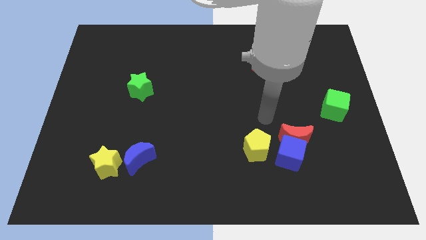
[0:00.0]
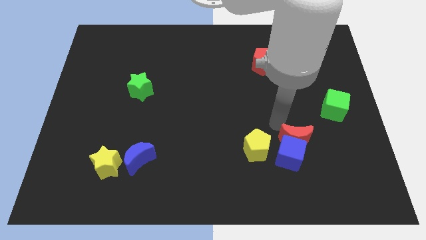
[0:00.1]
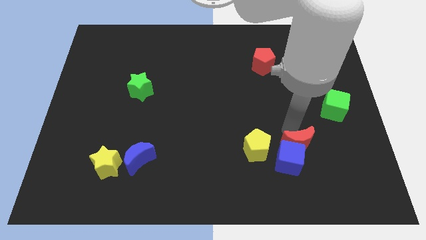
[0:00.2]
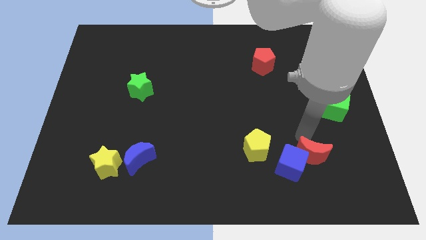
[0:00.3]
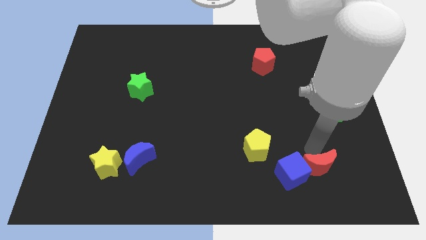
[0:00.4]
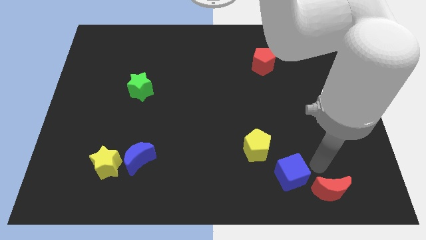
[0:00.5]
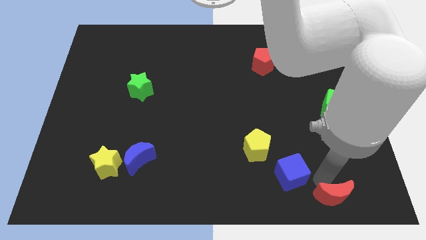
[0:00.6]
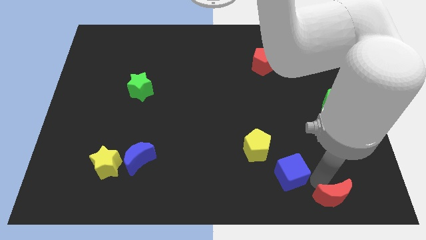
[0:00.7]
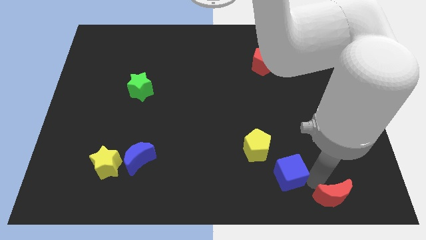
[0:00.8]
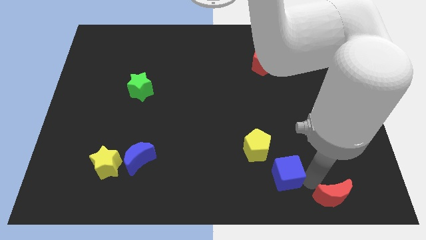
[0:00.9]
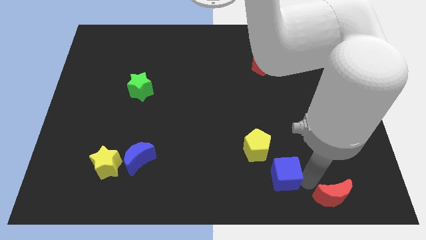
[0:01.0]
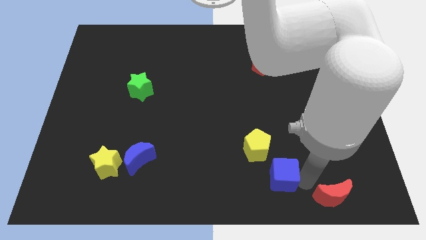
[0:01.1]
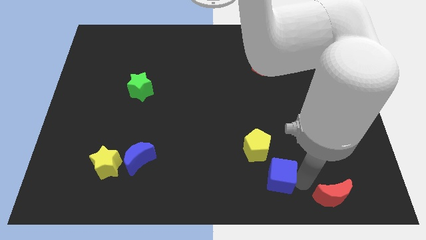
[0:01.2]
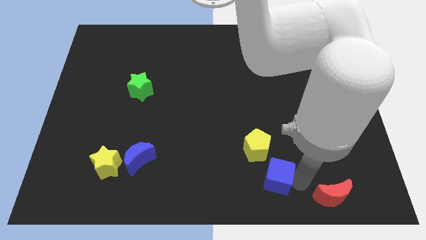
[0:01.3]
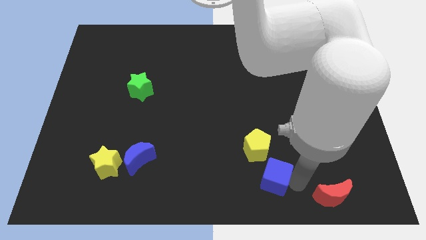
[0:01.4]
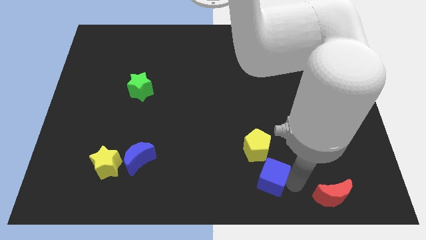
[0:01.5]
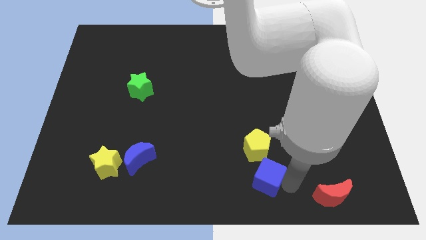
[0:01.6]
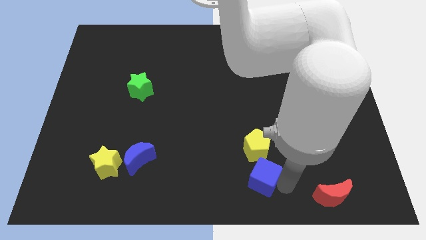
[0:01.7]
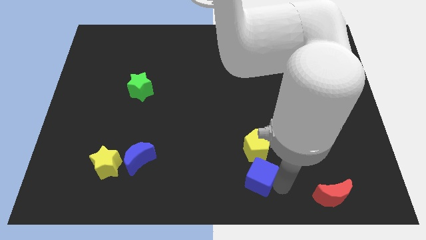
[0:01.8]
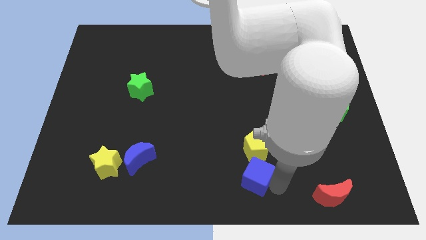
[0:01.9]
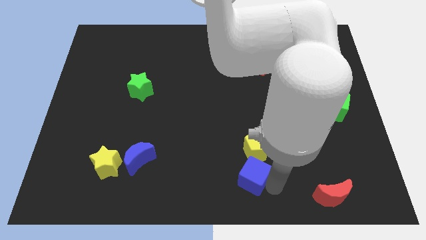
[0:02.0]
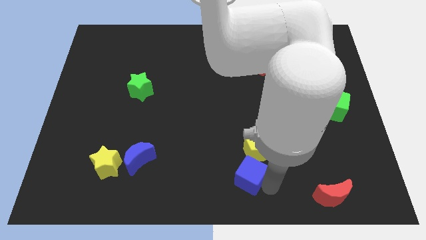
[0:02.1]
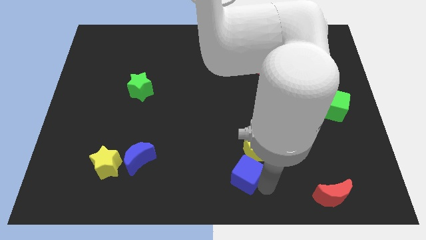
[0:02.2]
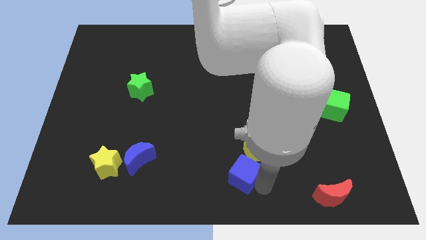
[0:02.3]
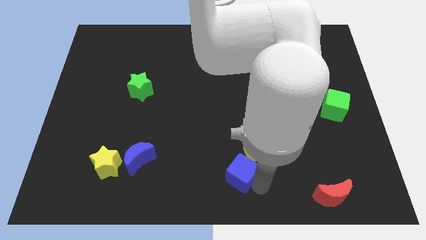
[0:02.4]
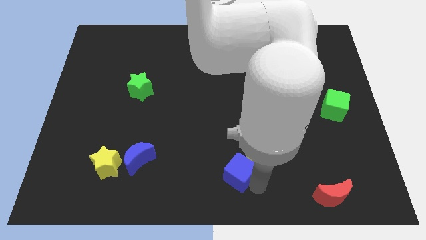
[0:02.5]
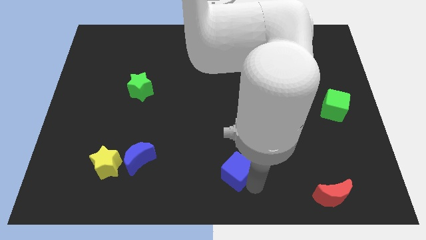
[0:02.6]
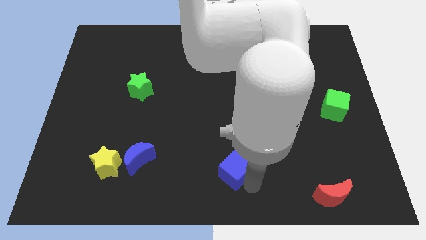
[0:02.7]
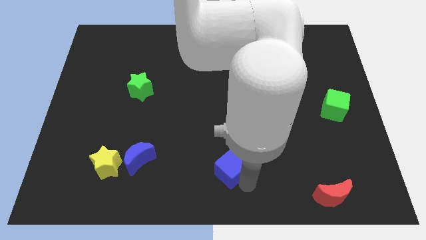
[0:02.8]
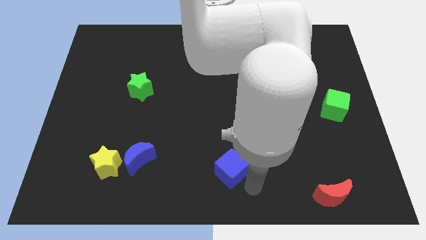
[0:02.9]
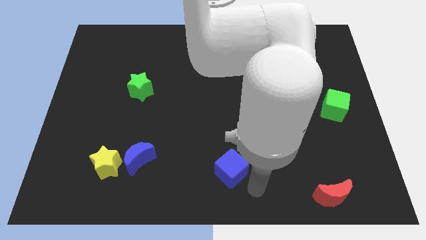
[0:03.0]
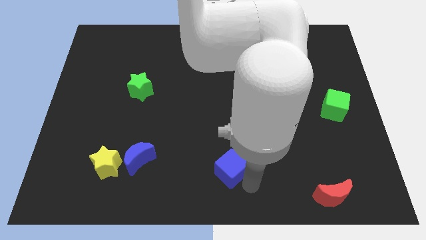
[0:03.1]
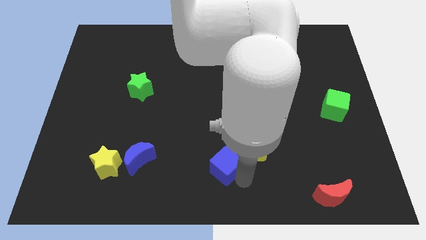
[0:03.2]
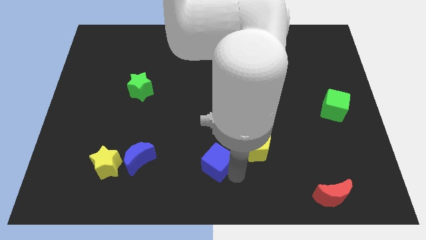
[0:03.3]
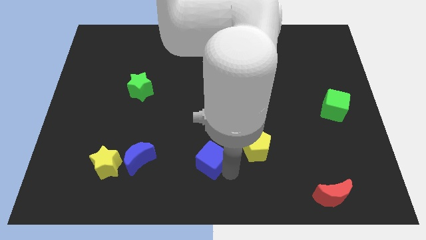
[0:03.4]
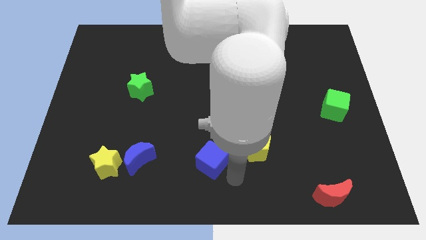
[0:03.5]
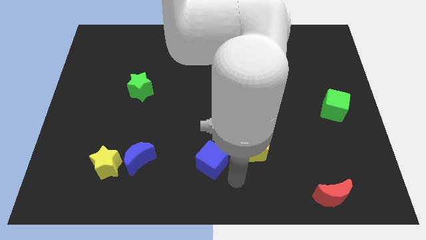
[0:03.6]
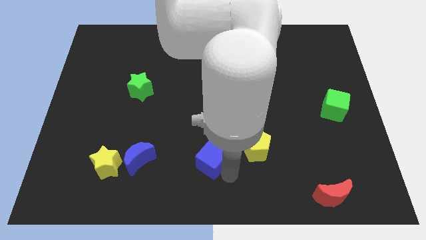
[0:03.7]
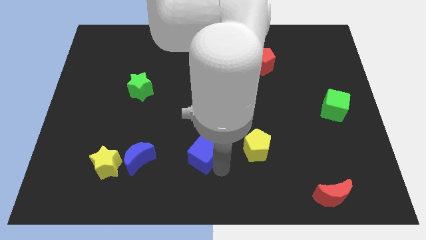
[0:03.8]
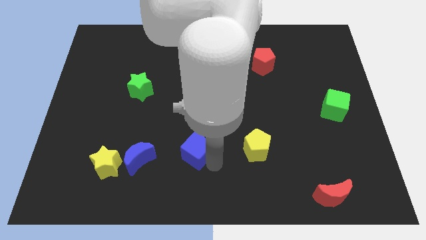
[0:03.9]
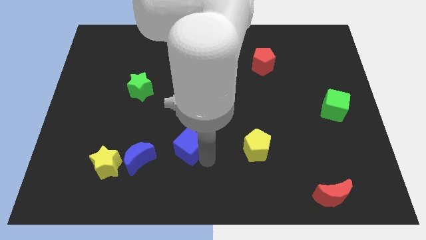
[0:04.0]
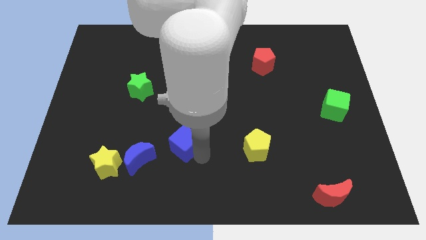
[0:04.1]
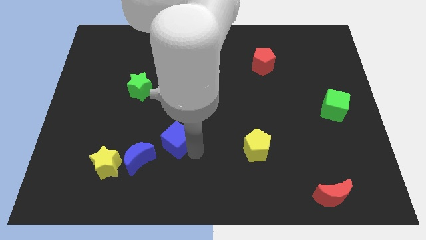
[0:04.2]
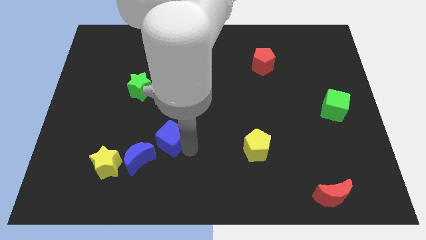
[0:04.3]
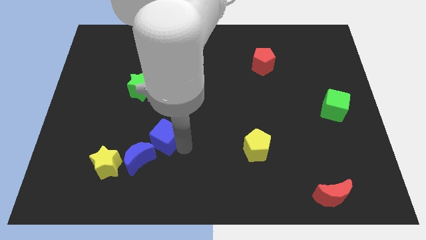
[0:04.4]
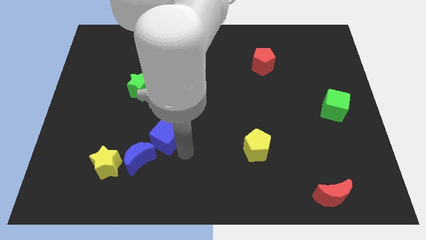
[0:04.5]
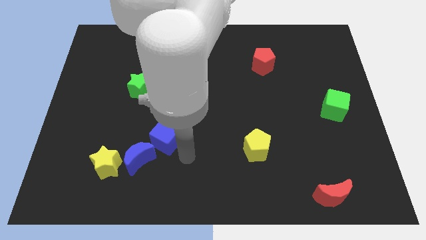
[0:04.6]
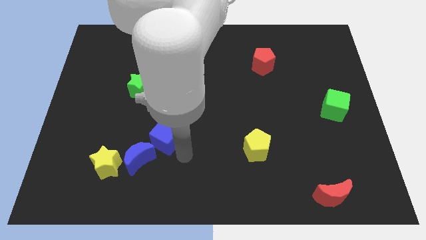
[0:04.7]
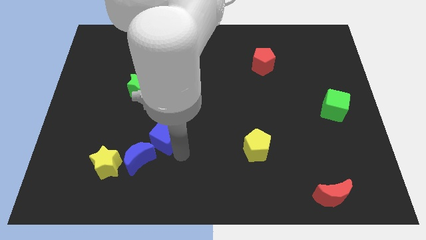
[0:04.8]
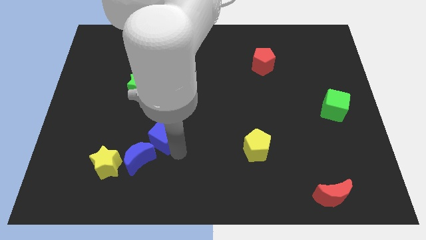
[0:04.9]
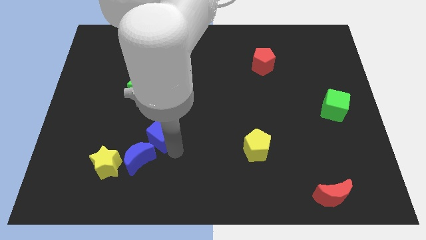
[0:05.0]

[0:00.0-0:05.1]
slide the blue cube above the blue moon

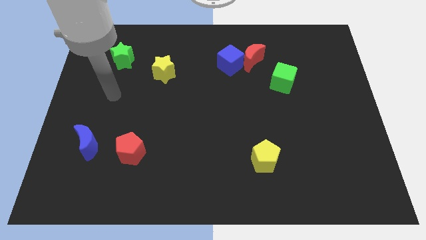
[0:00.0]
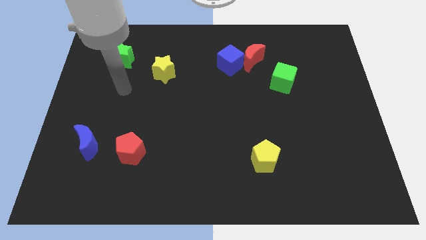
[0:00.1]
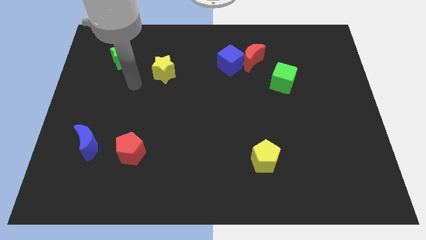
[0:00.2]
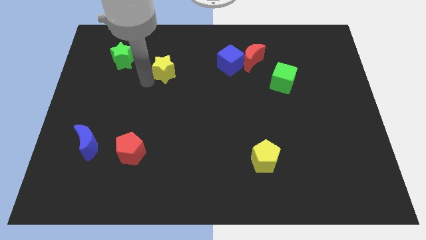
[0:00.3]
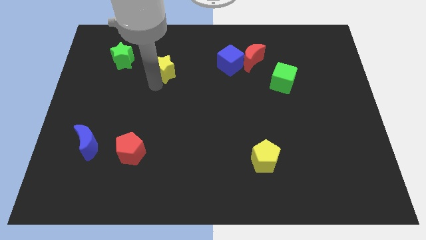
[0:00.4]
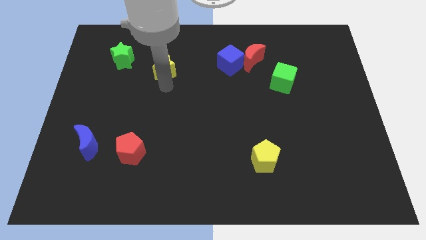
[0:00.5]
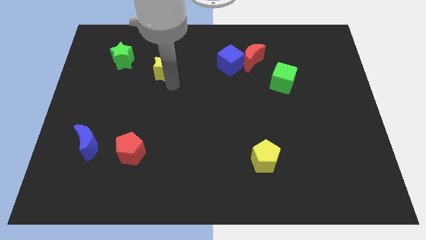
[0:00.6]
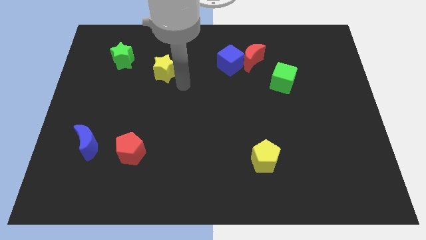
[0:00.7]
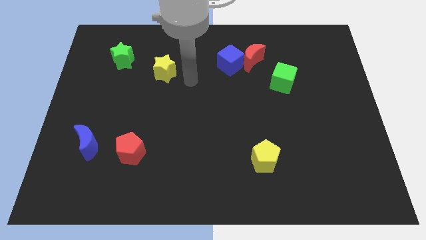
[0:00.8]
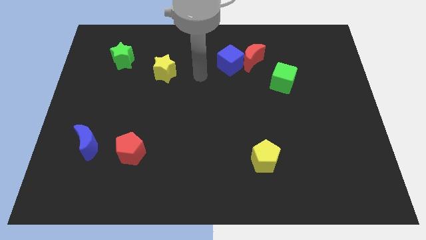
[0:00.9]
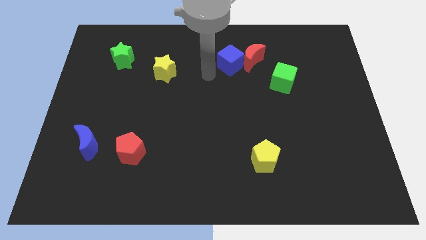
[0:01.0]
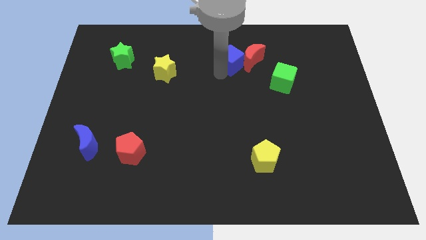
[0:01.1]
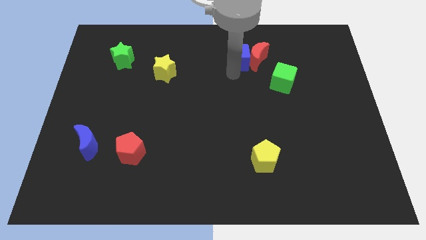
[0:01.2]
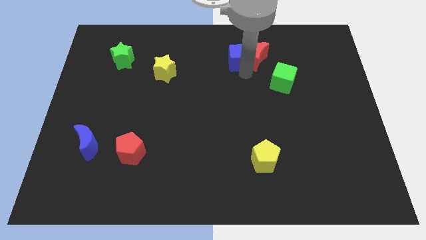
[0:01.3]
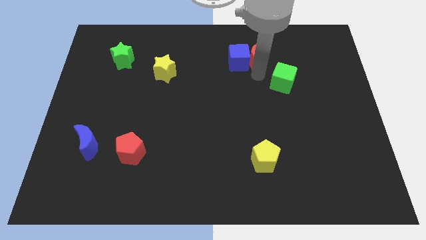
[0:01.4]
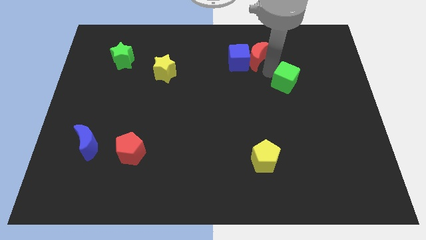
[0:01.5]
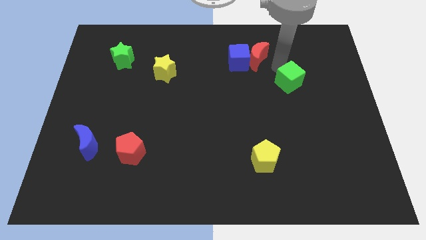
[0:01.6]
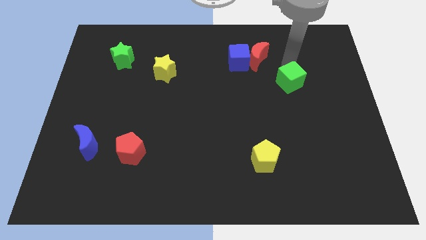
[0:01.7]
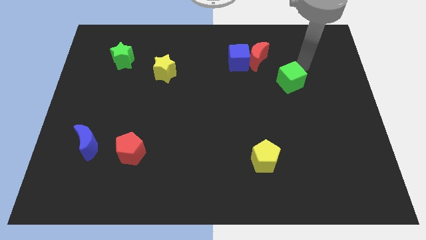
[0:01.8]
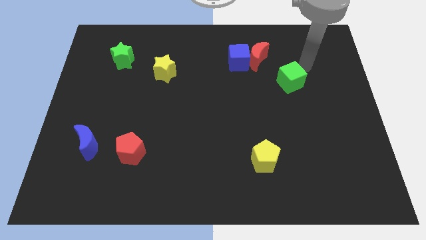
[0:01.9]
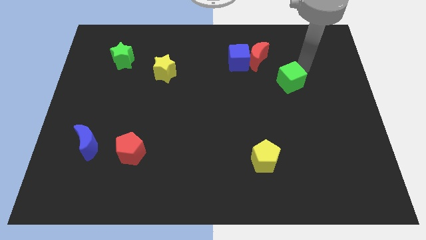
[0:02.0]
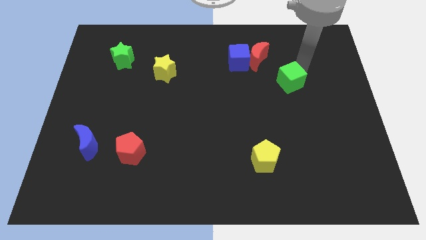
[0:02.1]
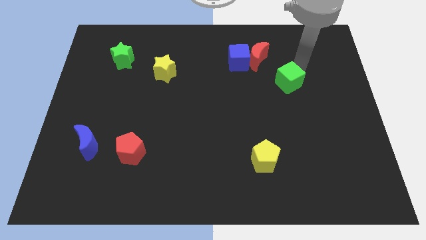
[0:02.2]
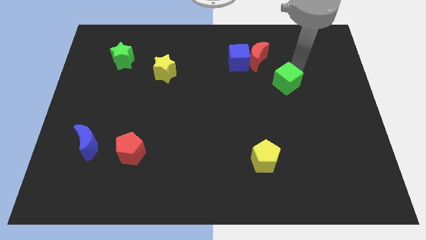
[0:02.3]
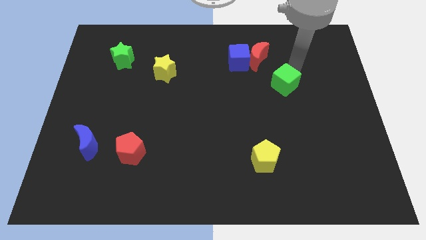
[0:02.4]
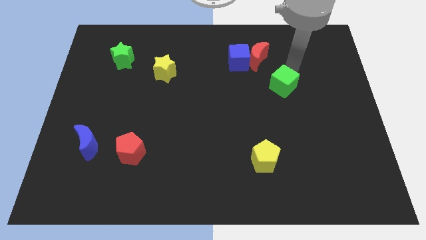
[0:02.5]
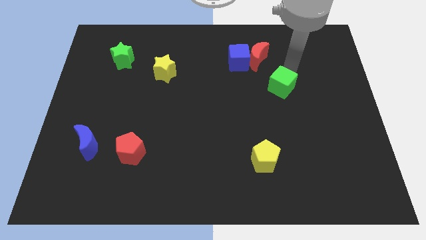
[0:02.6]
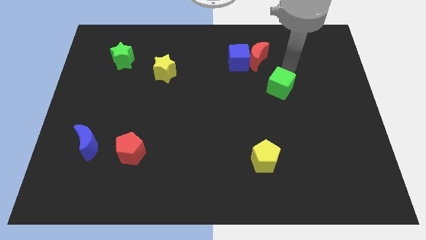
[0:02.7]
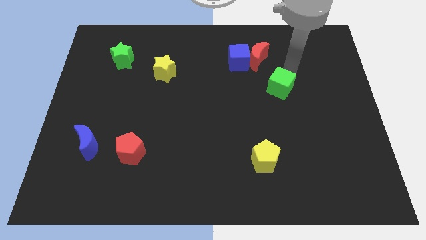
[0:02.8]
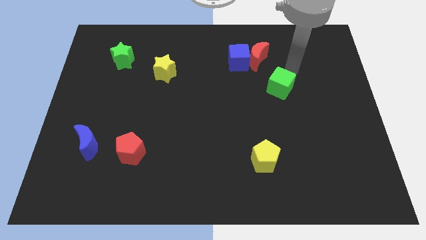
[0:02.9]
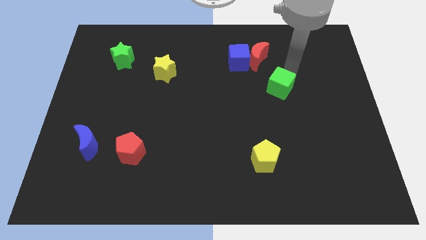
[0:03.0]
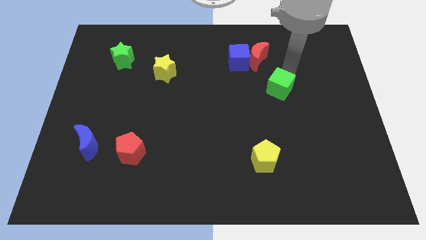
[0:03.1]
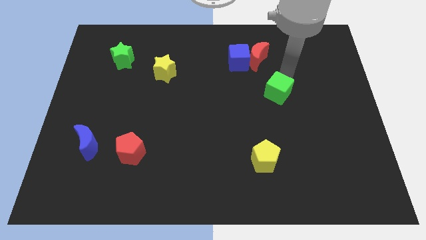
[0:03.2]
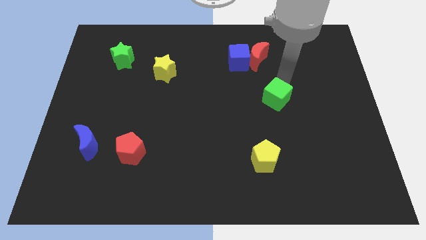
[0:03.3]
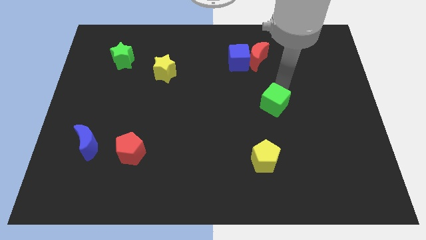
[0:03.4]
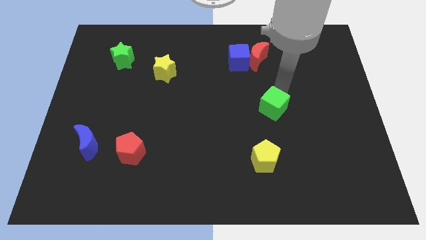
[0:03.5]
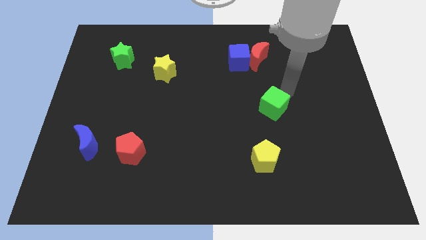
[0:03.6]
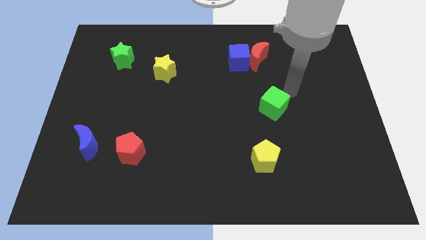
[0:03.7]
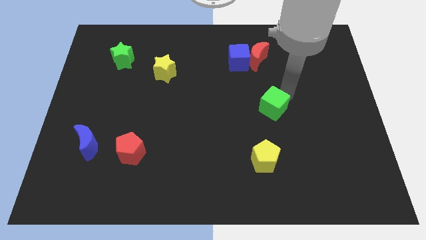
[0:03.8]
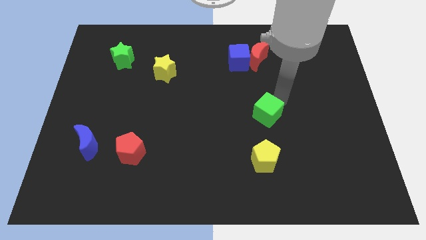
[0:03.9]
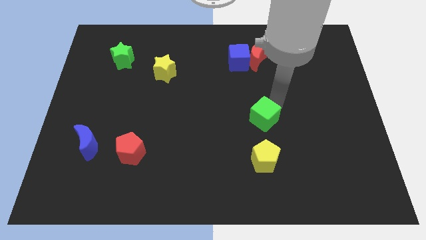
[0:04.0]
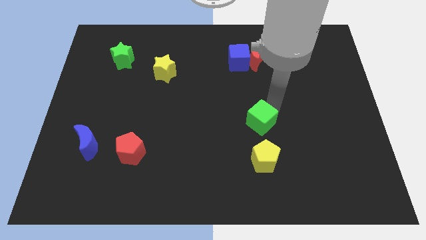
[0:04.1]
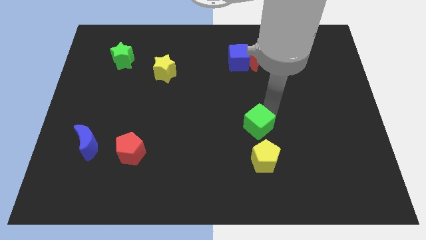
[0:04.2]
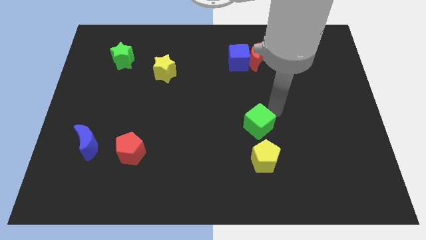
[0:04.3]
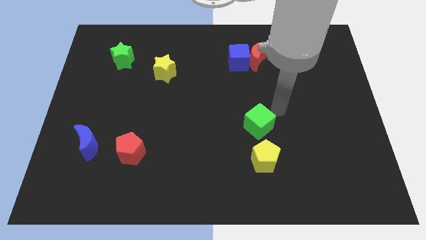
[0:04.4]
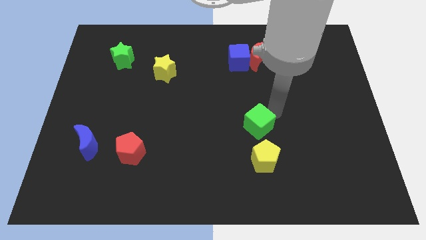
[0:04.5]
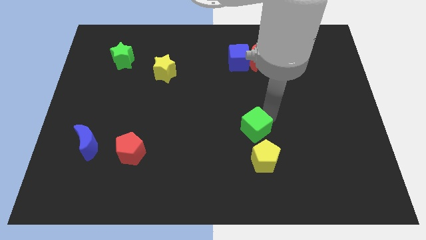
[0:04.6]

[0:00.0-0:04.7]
push the green cube to the top left of the yellow pentagon
